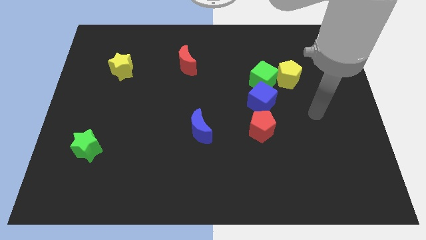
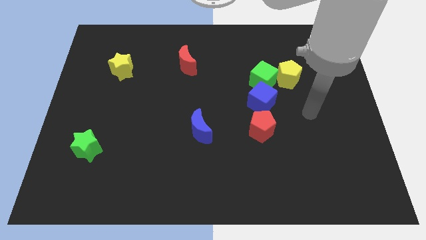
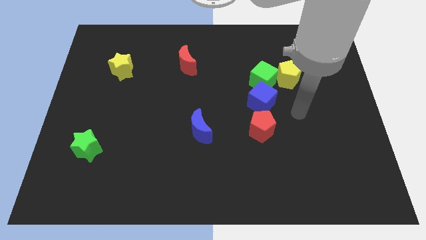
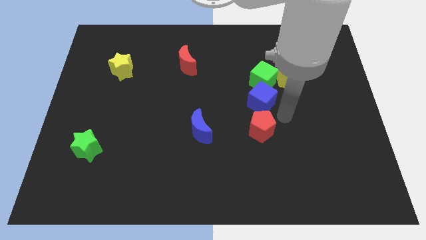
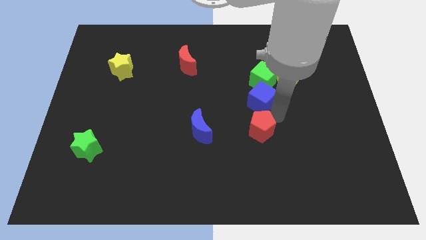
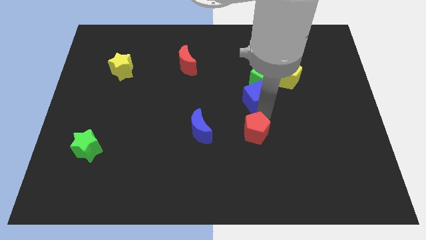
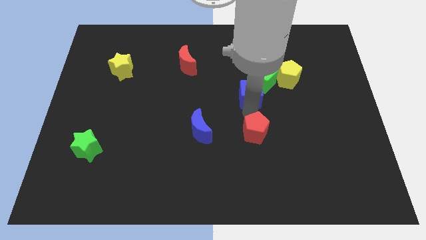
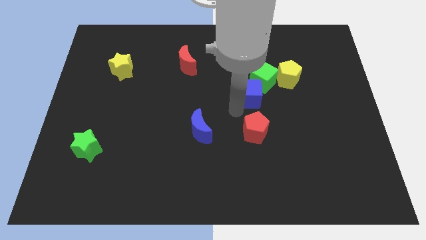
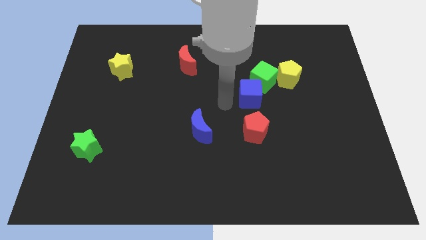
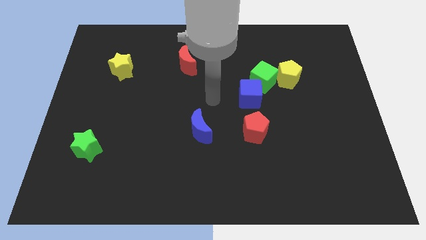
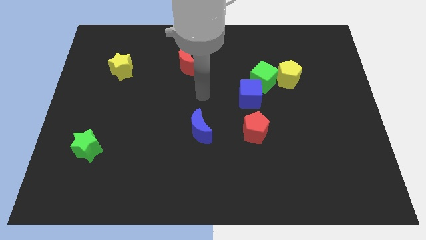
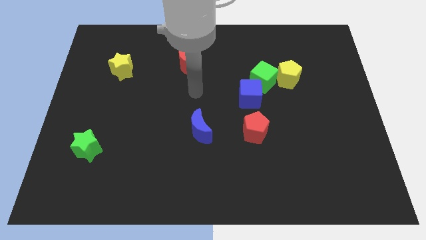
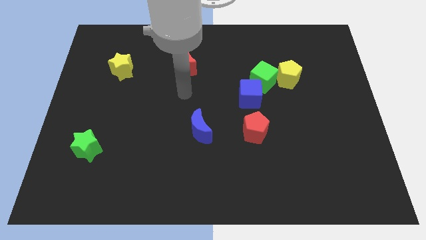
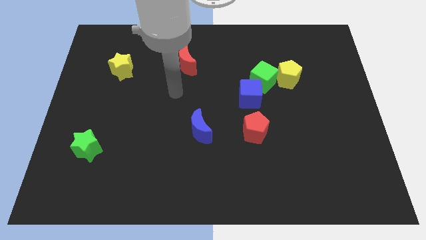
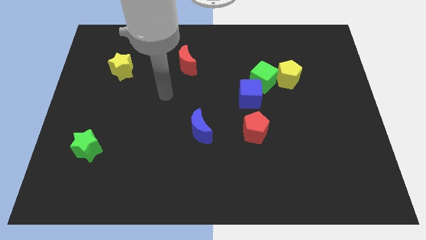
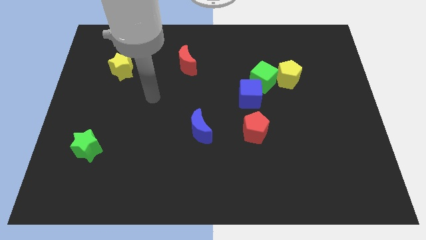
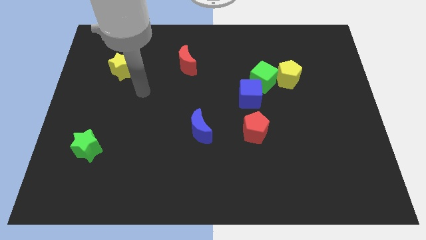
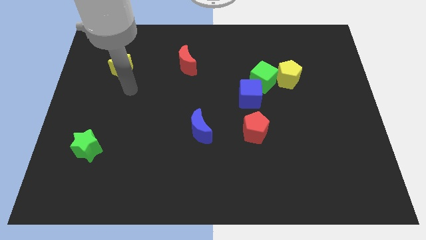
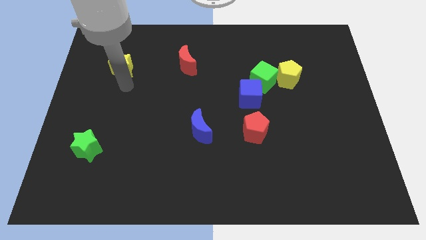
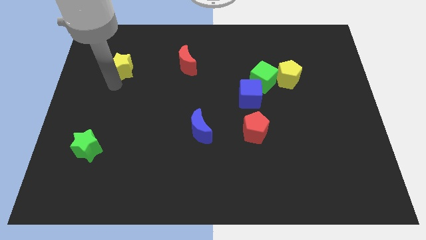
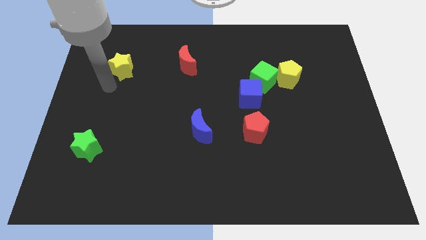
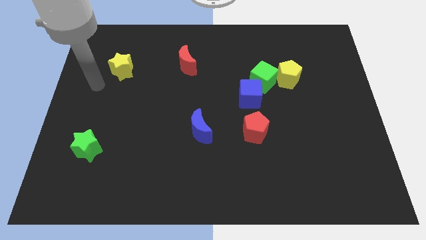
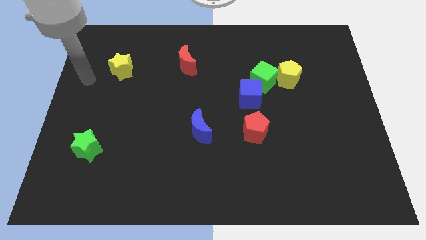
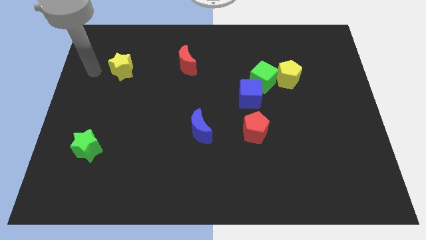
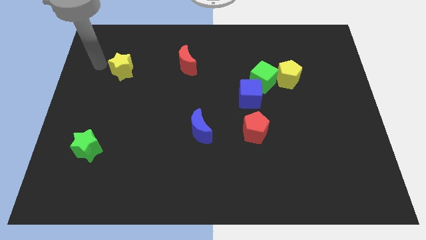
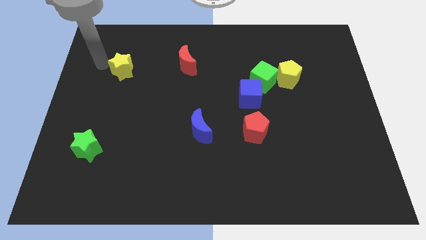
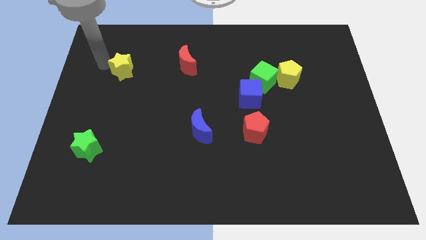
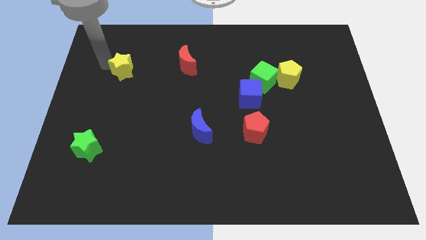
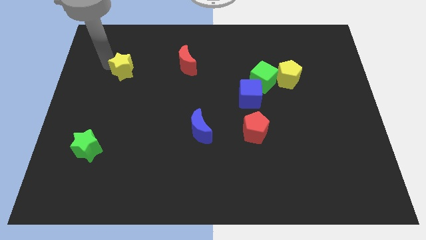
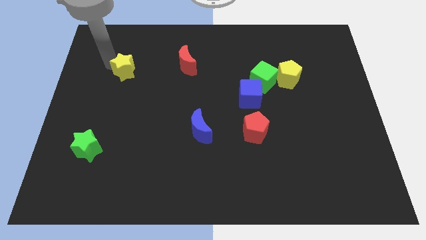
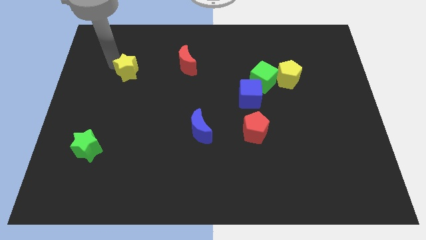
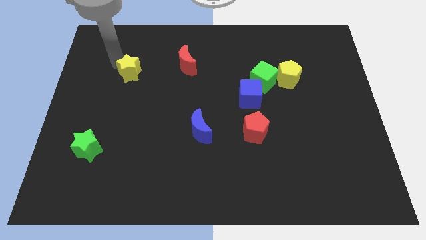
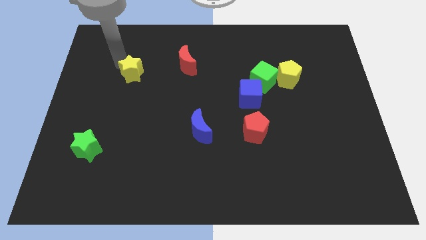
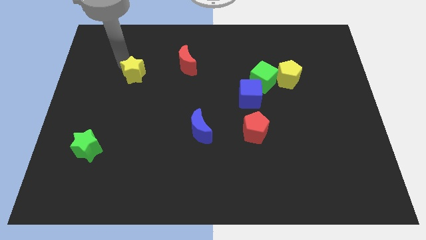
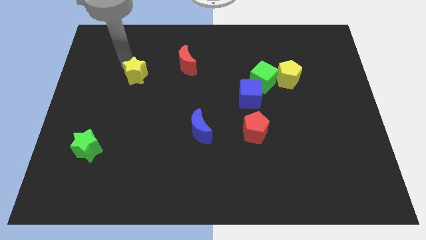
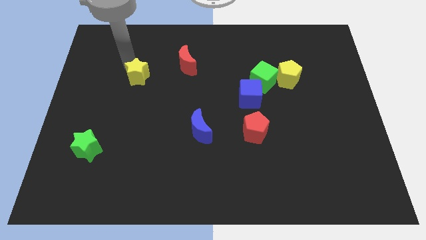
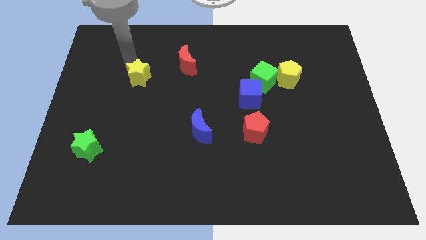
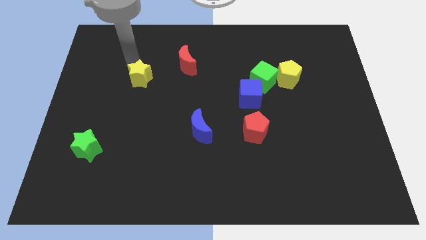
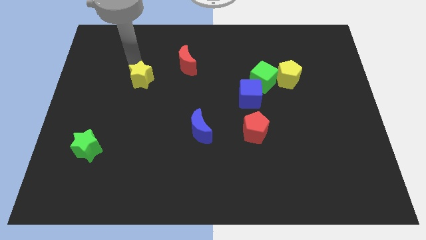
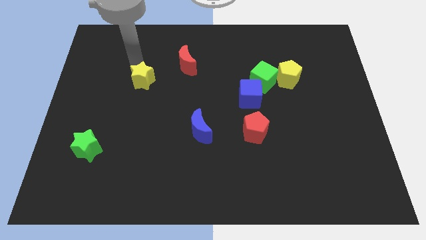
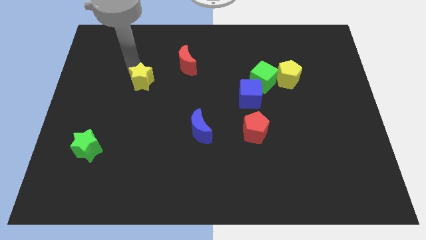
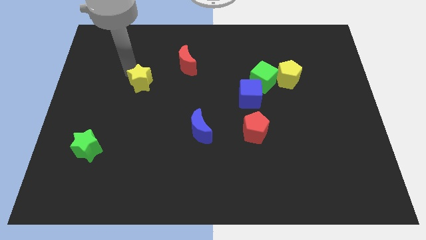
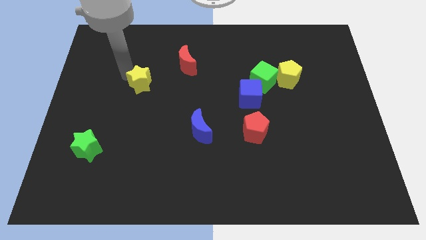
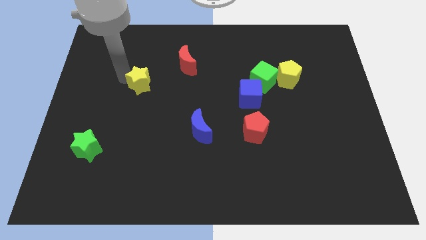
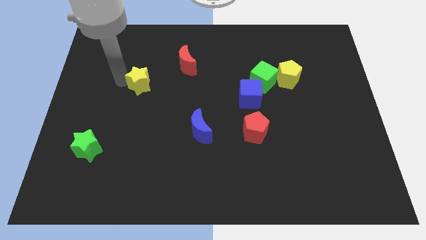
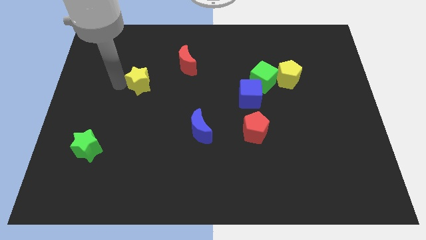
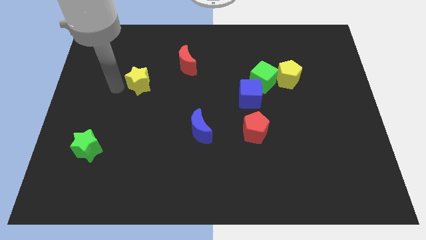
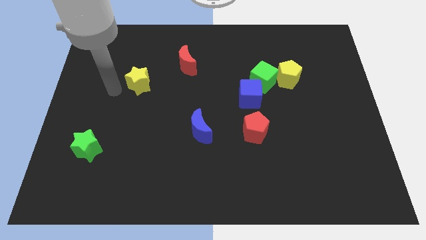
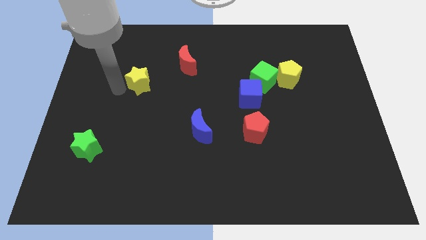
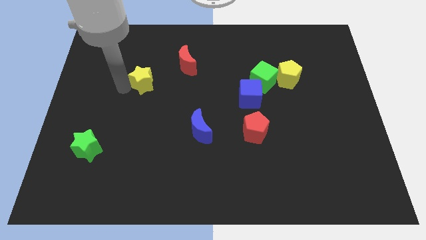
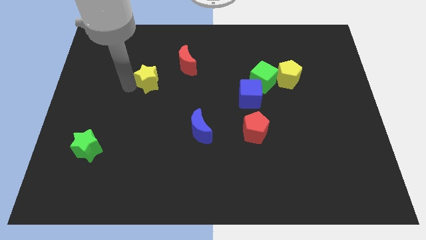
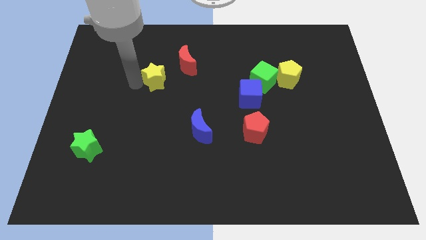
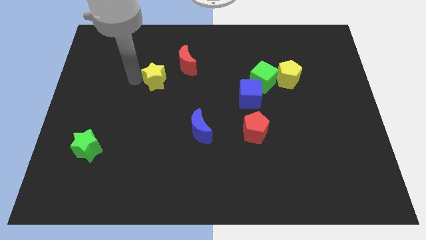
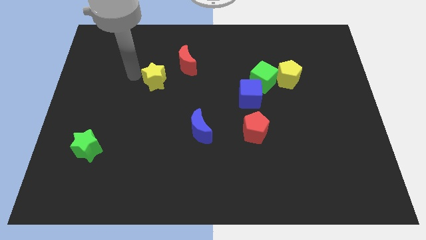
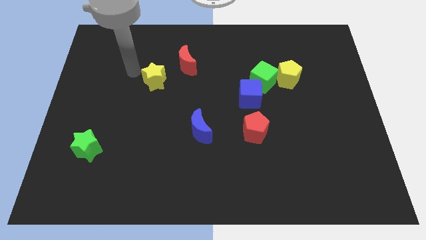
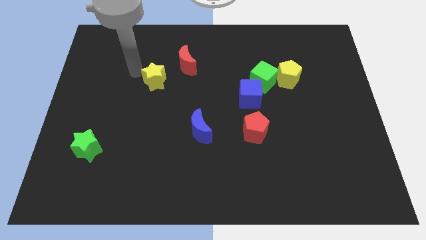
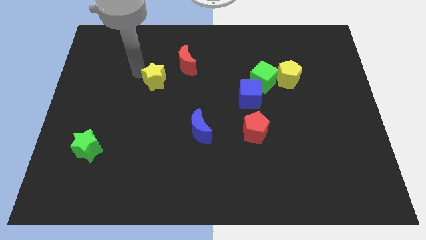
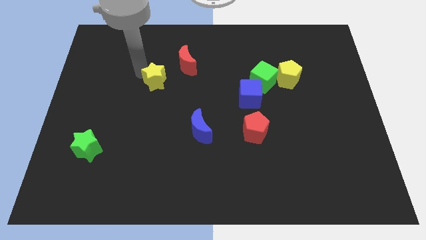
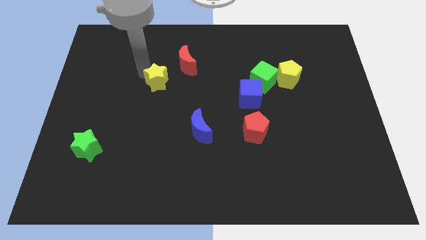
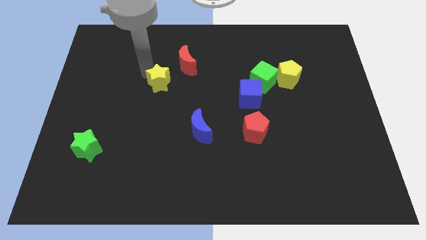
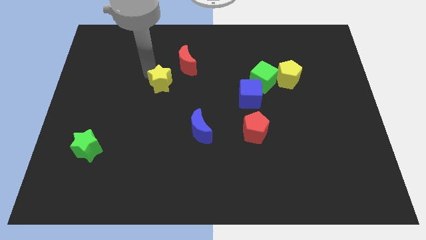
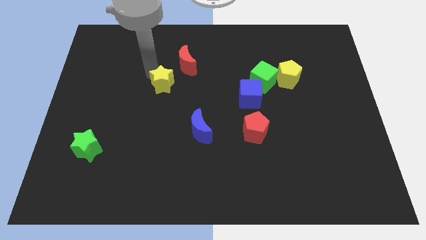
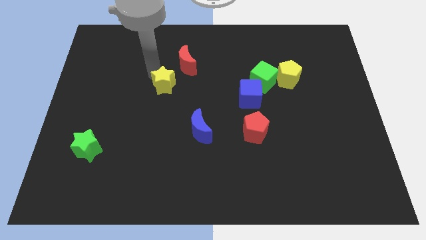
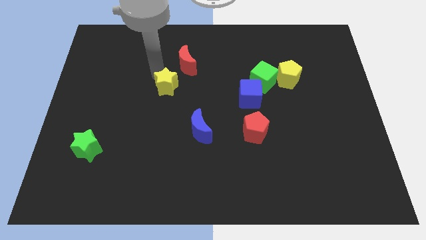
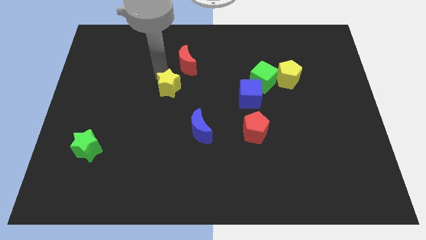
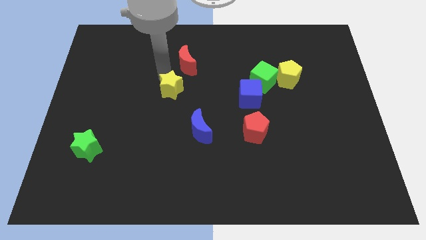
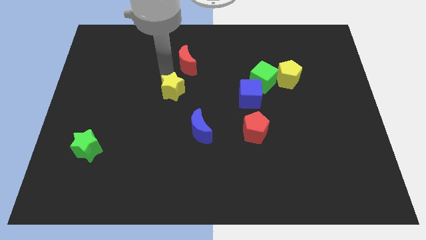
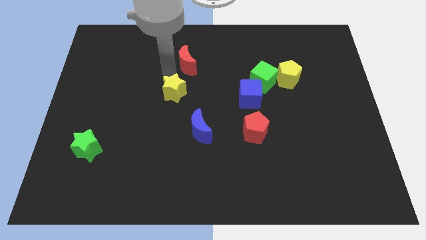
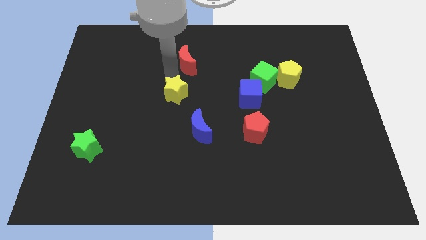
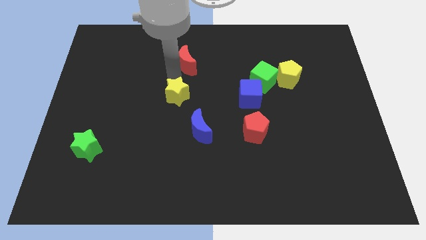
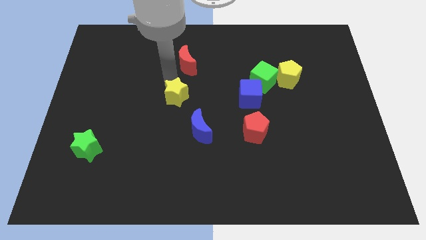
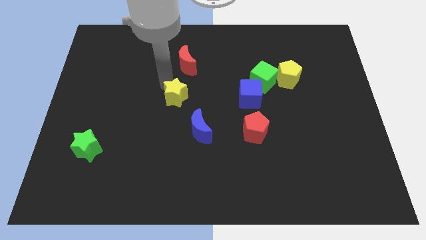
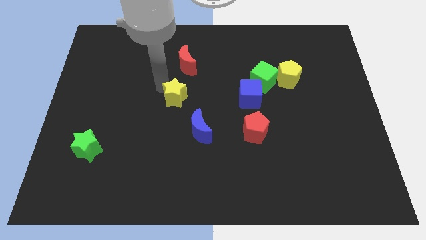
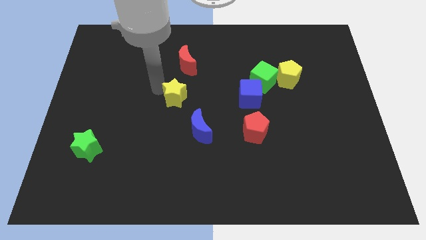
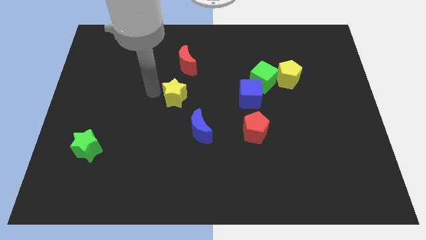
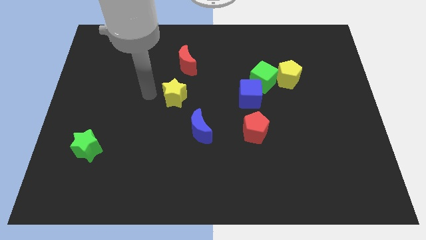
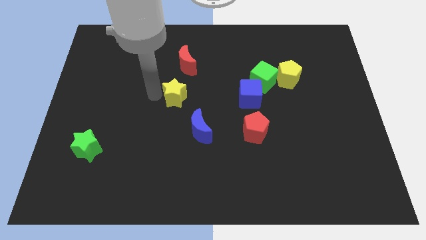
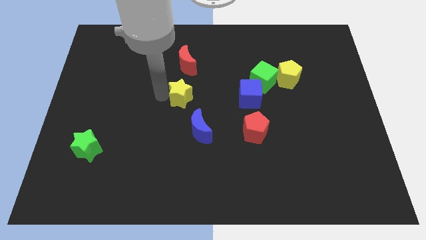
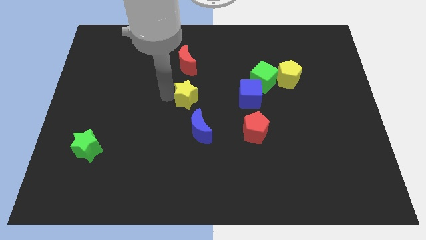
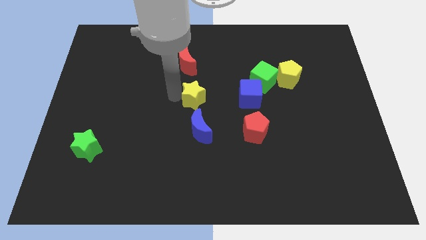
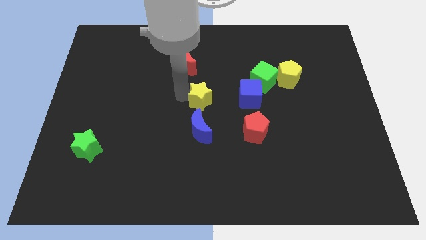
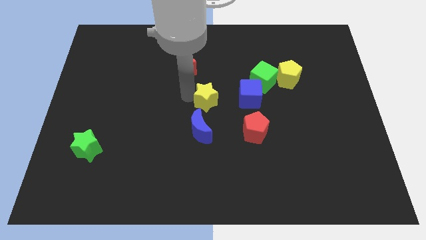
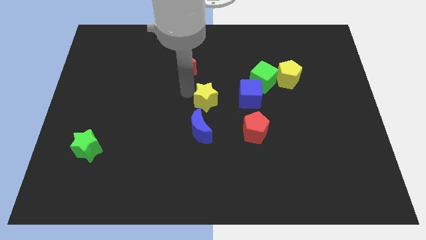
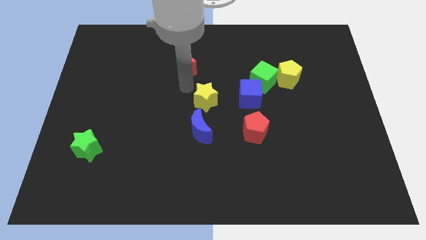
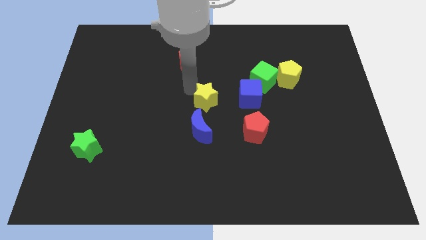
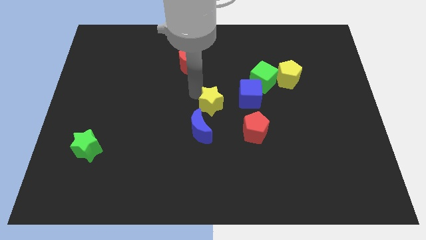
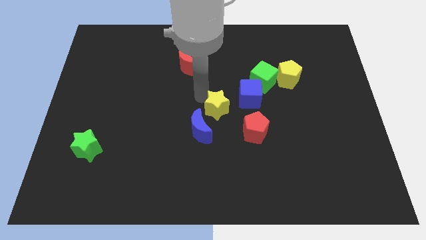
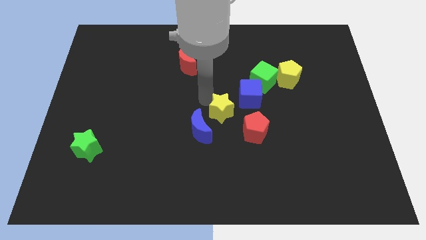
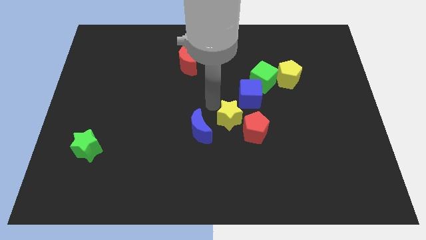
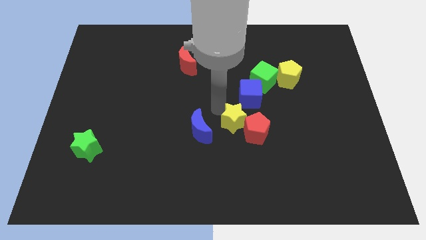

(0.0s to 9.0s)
push the yellow star towards the red pentagon
